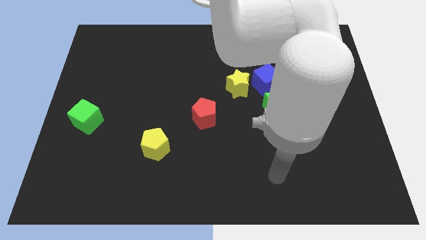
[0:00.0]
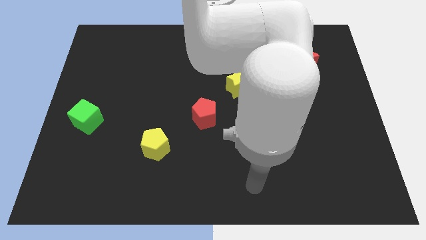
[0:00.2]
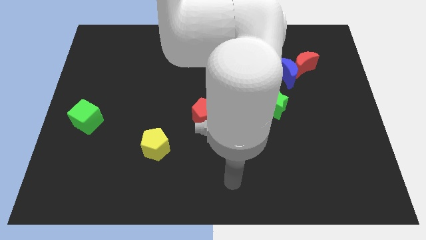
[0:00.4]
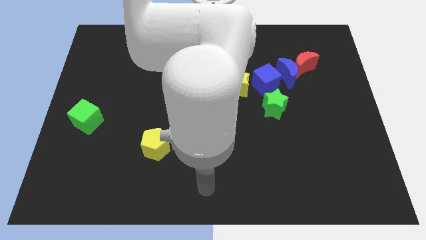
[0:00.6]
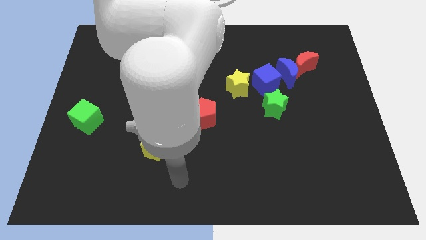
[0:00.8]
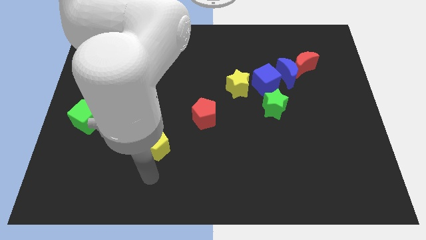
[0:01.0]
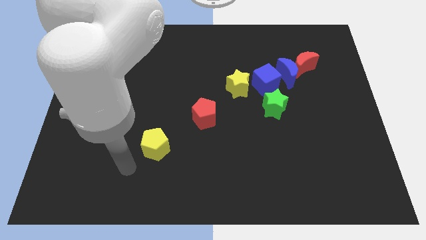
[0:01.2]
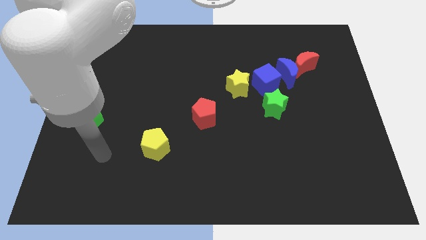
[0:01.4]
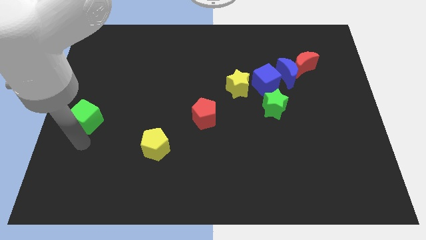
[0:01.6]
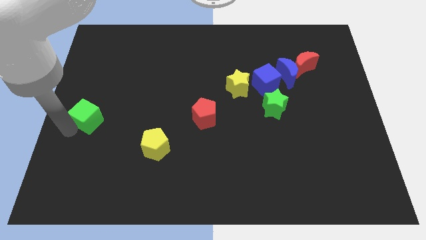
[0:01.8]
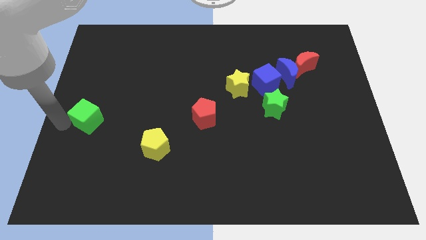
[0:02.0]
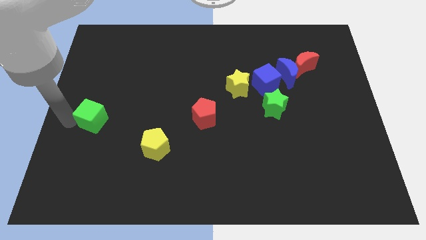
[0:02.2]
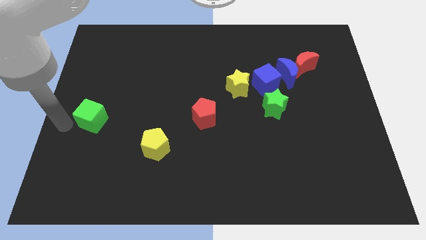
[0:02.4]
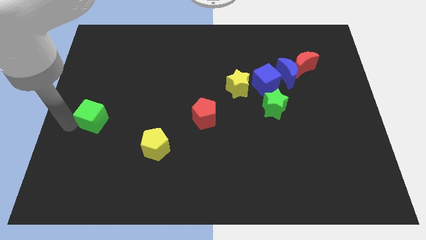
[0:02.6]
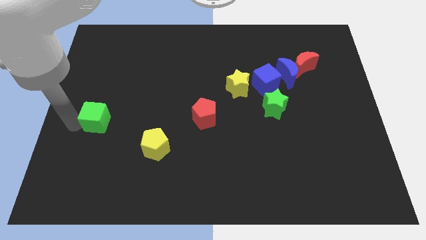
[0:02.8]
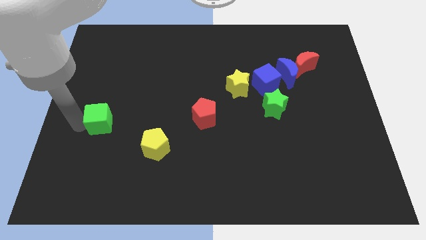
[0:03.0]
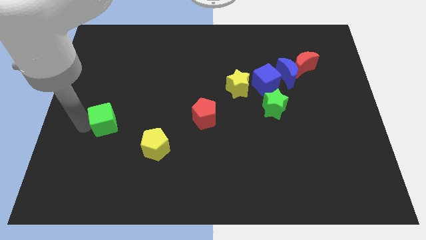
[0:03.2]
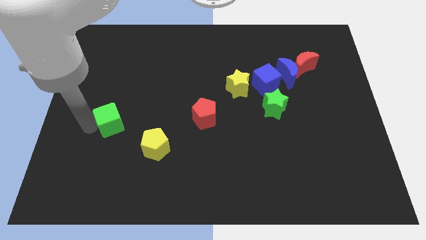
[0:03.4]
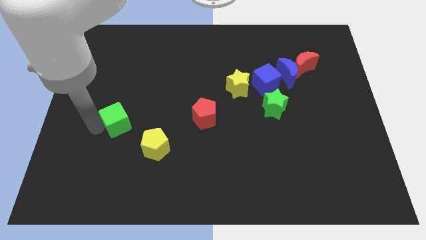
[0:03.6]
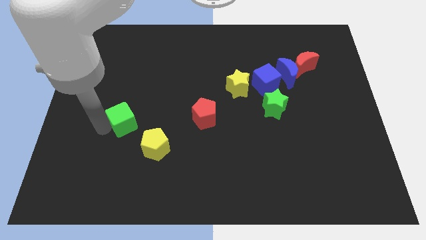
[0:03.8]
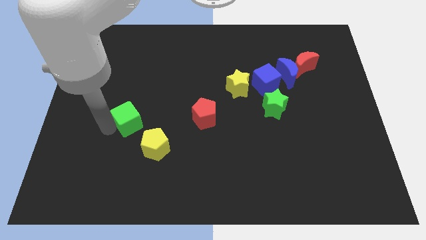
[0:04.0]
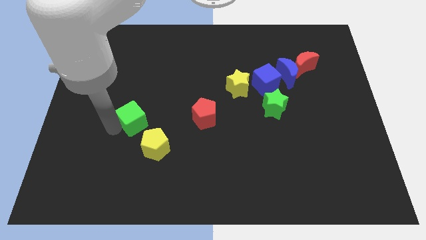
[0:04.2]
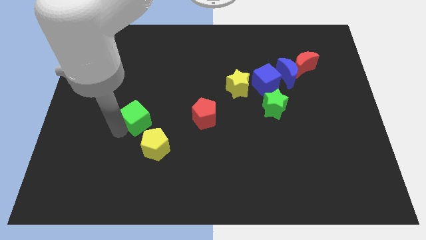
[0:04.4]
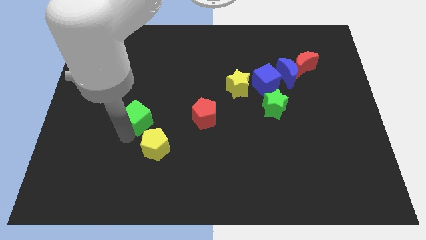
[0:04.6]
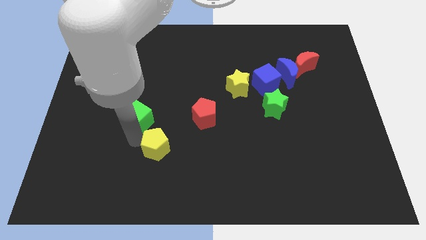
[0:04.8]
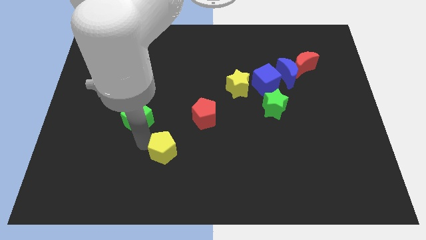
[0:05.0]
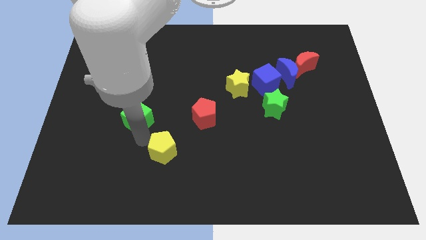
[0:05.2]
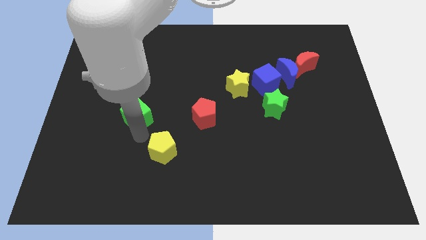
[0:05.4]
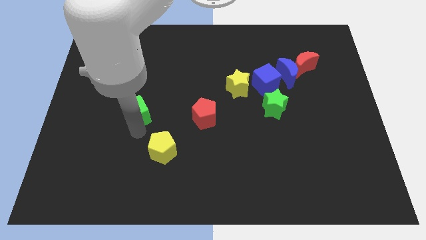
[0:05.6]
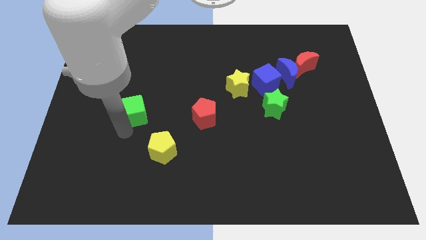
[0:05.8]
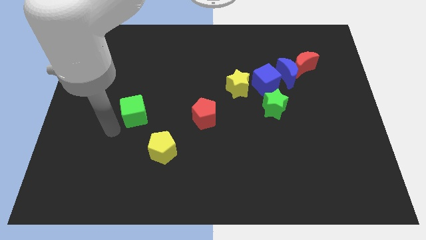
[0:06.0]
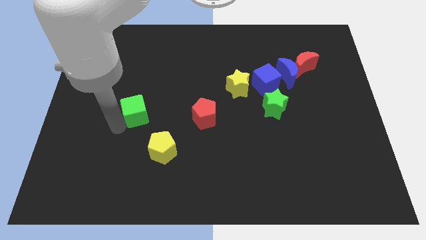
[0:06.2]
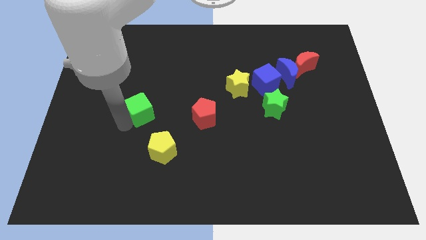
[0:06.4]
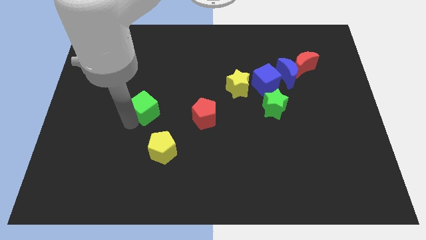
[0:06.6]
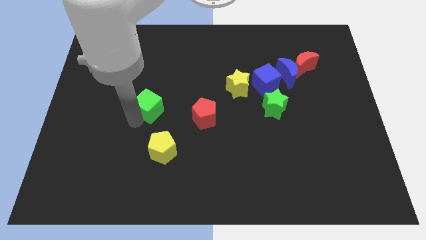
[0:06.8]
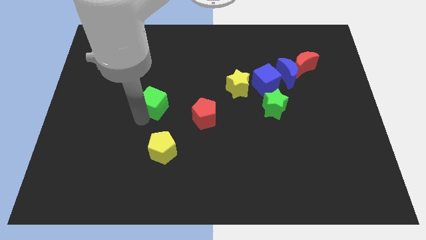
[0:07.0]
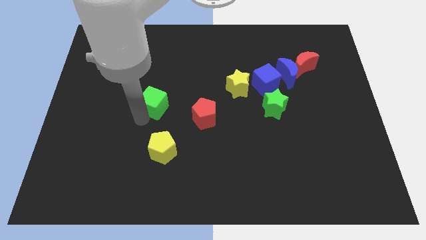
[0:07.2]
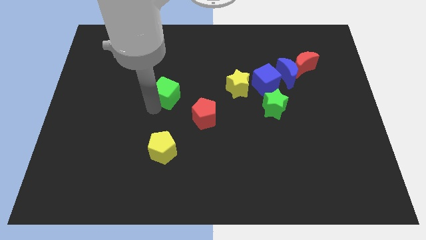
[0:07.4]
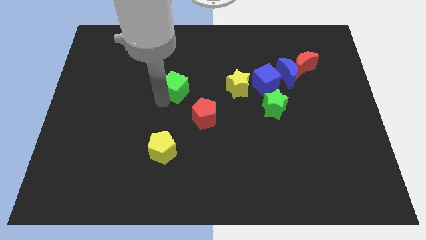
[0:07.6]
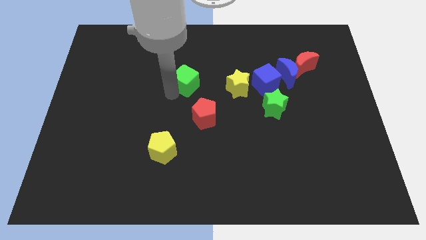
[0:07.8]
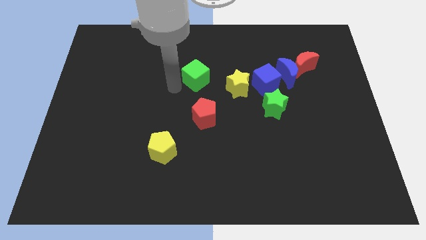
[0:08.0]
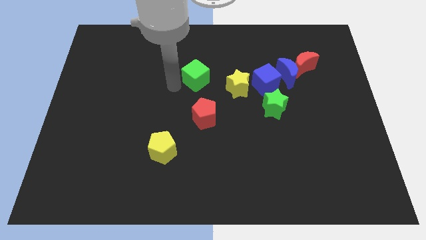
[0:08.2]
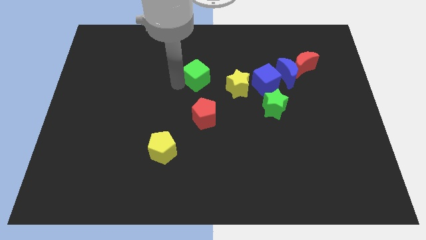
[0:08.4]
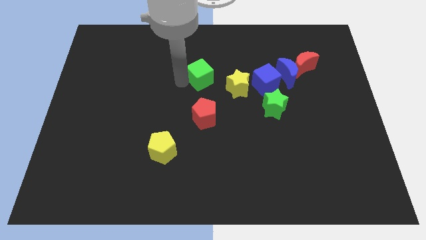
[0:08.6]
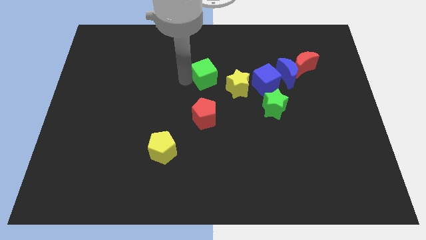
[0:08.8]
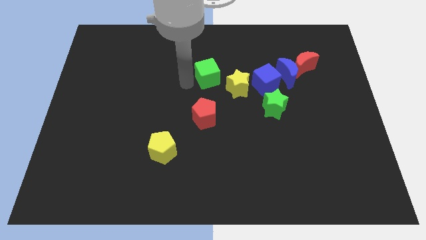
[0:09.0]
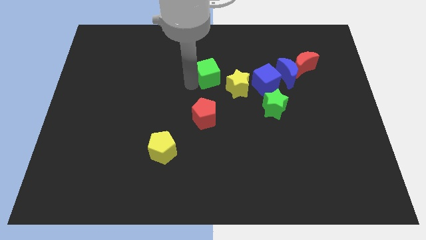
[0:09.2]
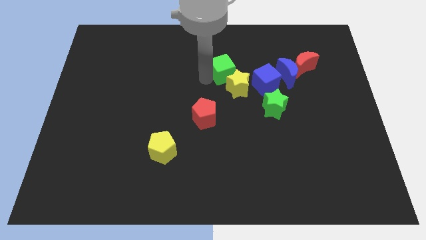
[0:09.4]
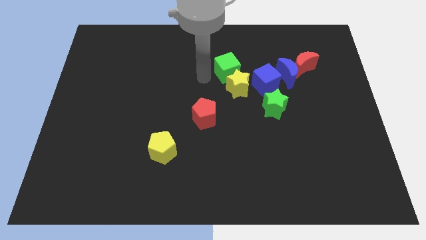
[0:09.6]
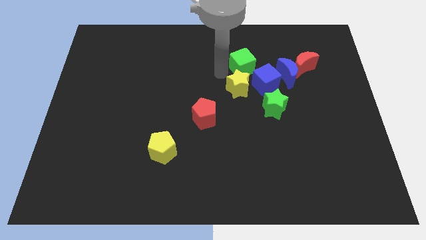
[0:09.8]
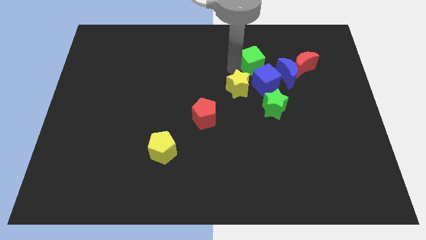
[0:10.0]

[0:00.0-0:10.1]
push the green cube to the top left side of the blue moon

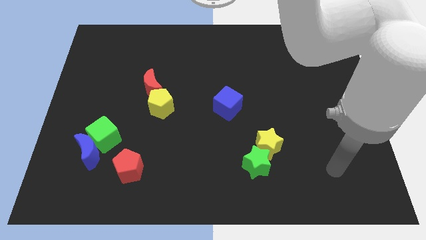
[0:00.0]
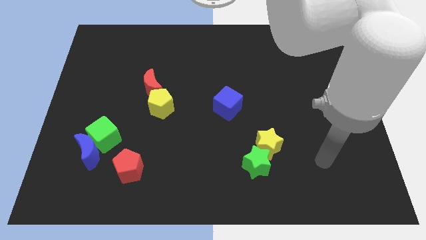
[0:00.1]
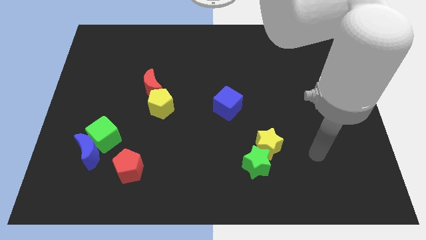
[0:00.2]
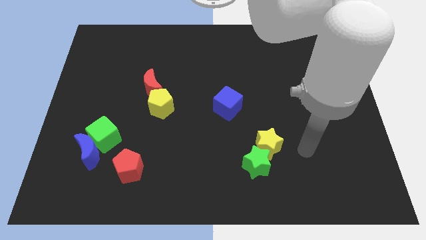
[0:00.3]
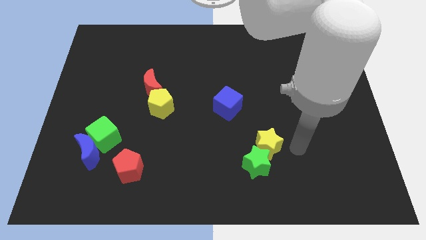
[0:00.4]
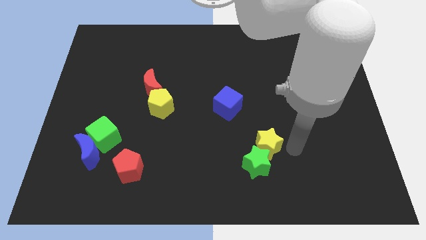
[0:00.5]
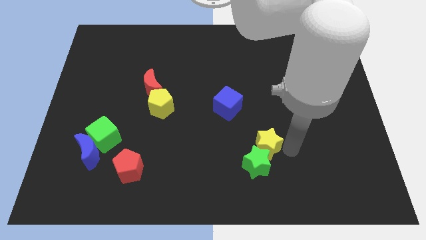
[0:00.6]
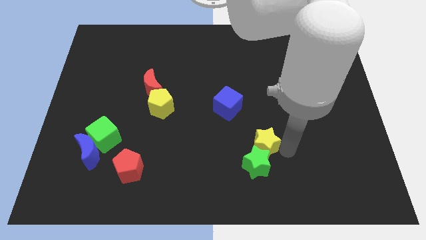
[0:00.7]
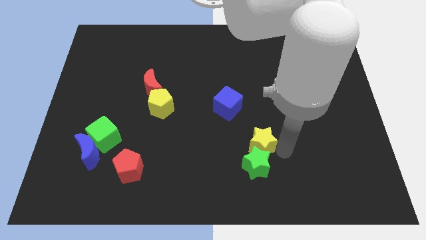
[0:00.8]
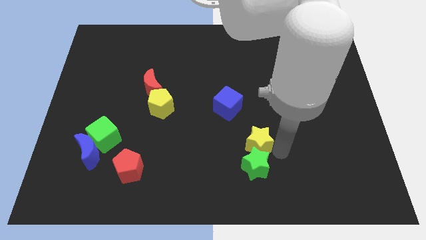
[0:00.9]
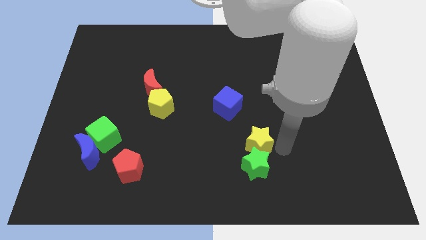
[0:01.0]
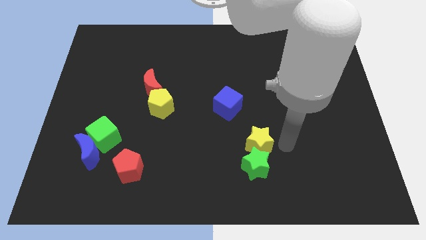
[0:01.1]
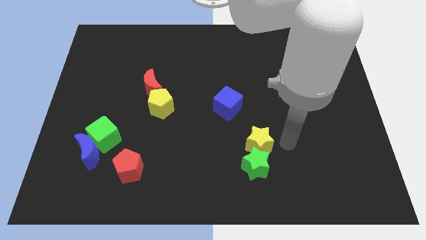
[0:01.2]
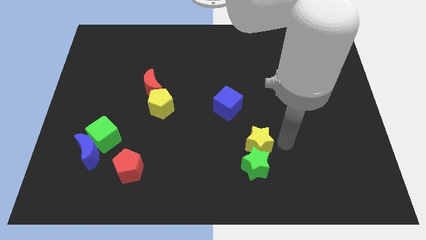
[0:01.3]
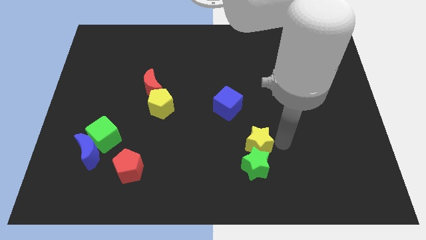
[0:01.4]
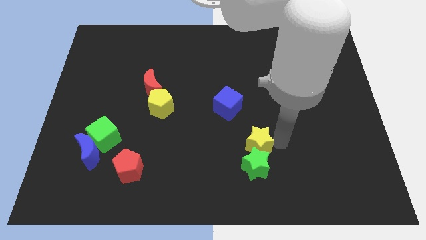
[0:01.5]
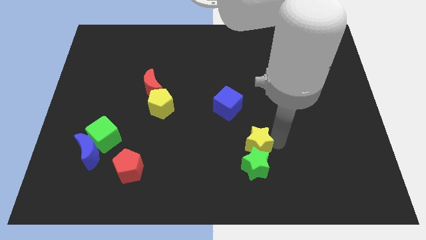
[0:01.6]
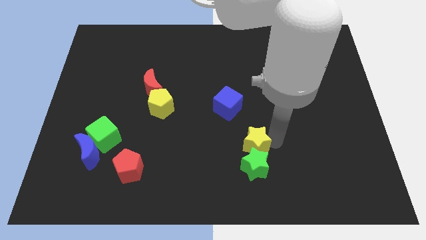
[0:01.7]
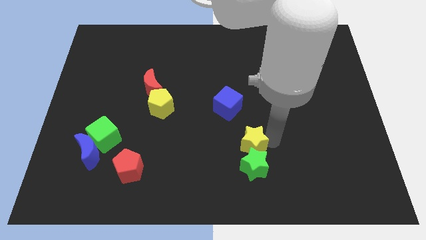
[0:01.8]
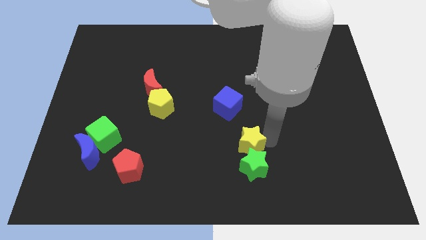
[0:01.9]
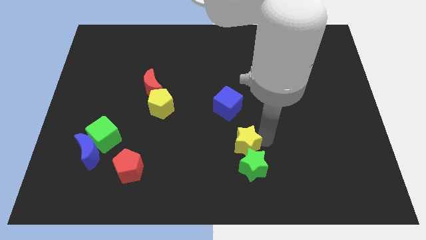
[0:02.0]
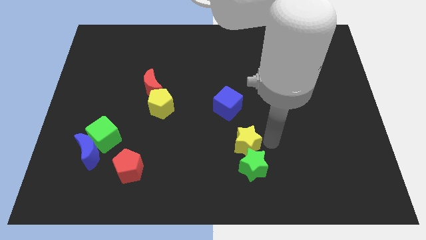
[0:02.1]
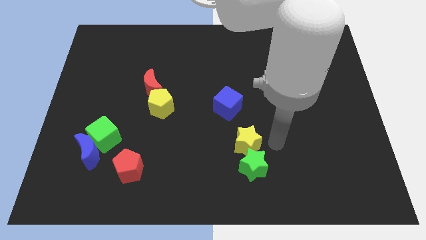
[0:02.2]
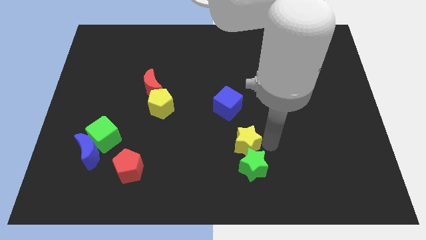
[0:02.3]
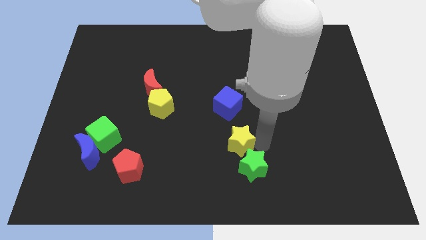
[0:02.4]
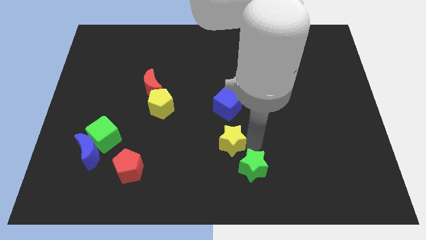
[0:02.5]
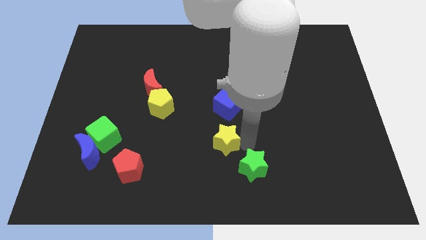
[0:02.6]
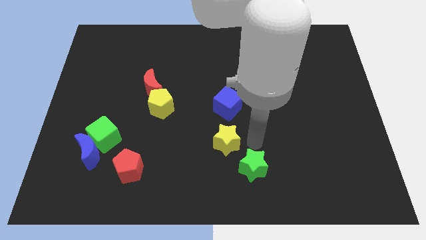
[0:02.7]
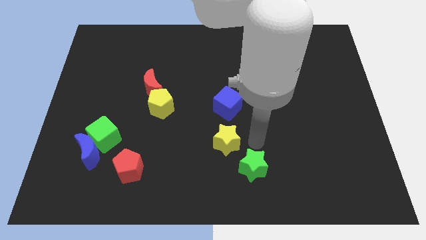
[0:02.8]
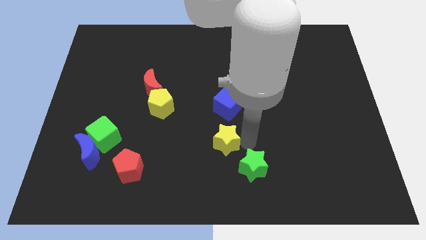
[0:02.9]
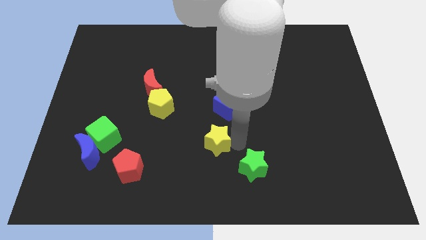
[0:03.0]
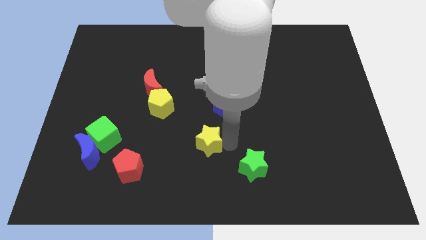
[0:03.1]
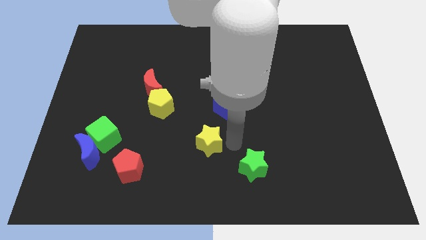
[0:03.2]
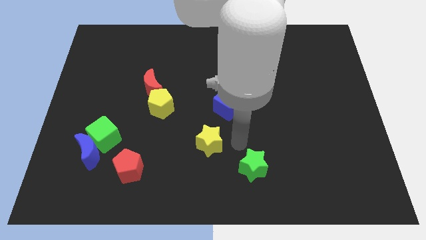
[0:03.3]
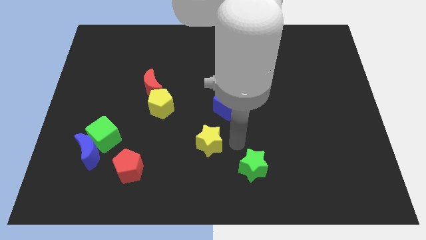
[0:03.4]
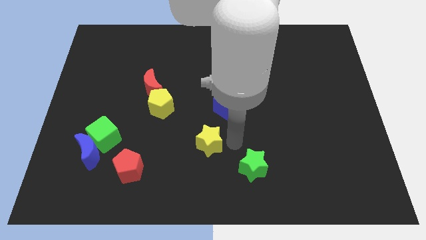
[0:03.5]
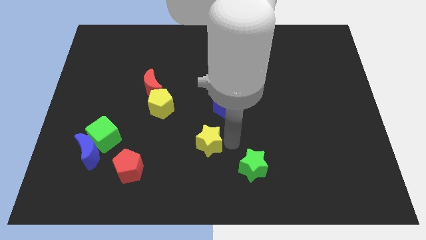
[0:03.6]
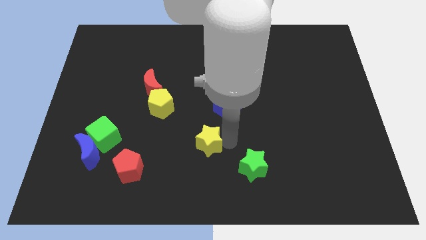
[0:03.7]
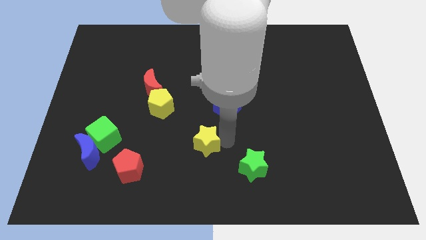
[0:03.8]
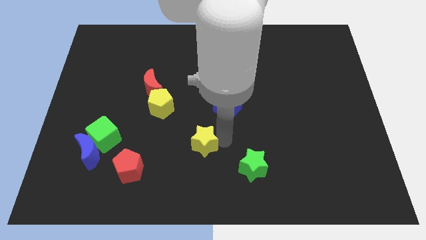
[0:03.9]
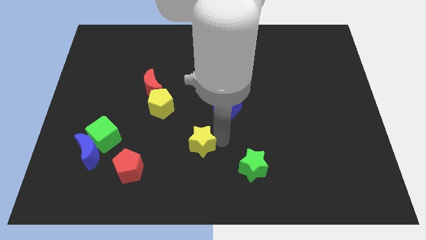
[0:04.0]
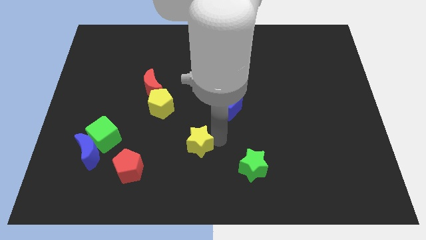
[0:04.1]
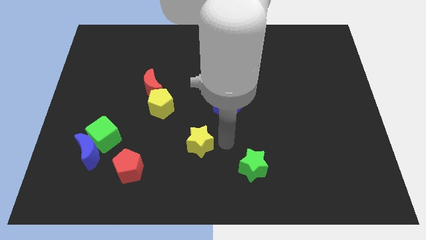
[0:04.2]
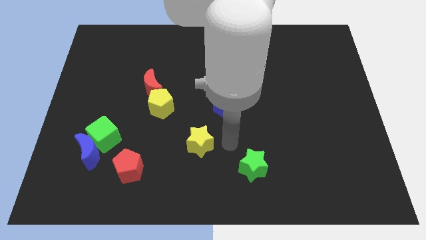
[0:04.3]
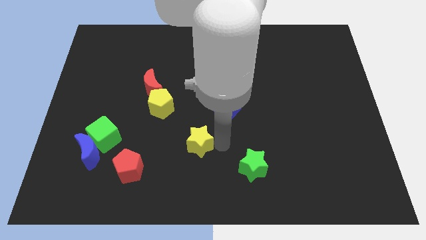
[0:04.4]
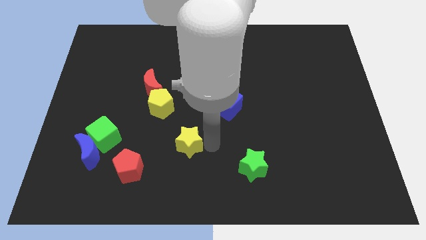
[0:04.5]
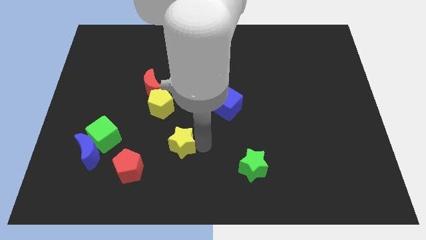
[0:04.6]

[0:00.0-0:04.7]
slide the yellow star to the top right of the red pentagon
